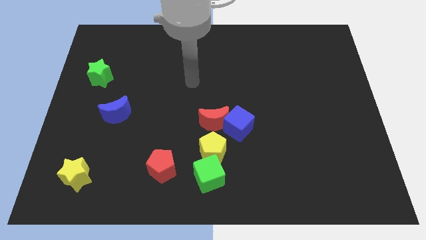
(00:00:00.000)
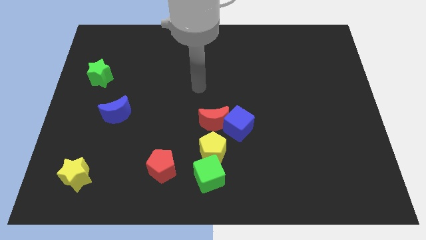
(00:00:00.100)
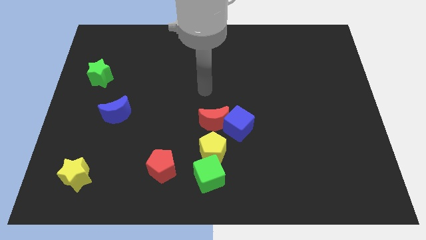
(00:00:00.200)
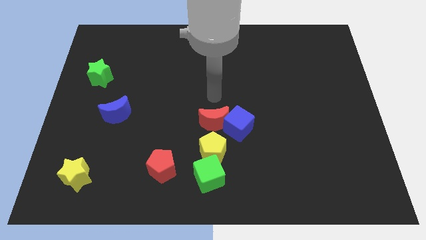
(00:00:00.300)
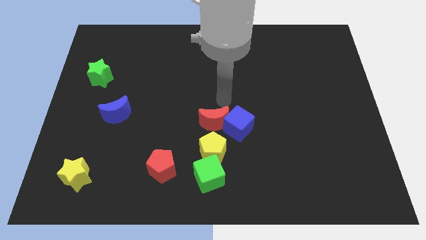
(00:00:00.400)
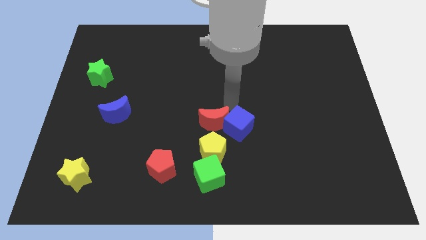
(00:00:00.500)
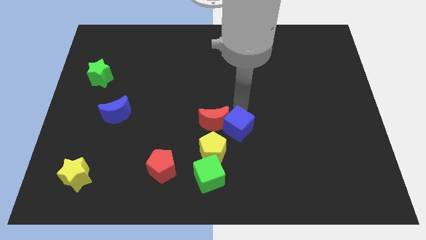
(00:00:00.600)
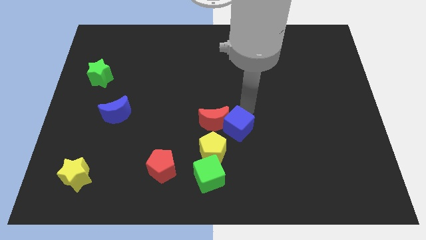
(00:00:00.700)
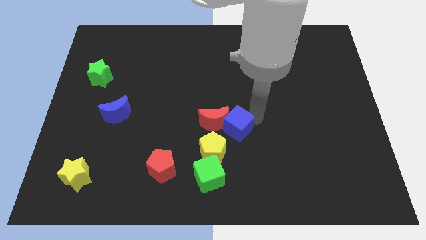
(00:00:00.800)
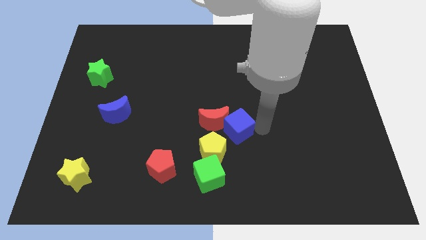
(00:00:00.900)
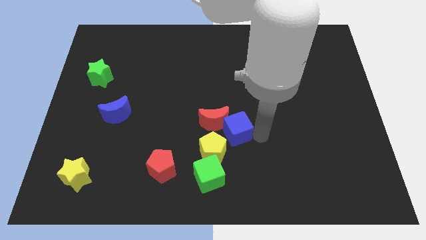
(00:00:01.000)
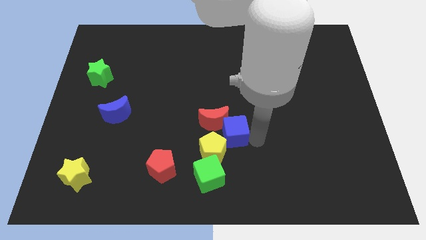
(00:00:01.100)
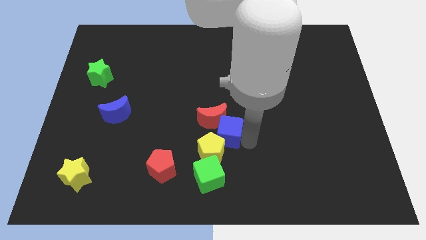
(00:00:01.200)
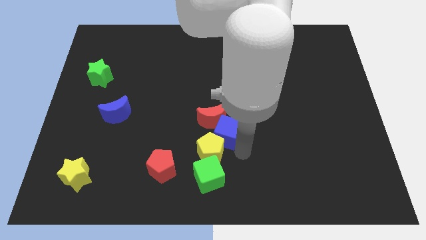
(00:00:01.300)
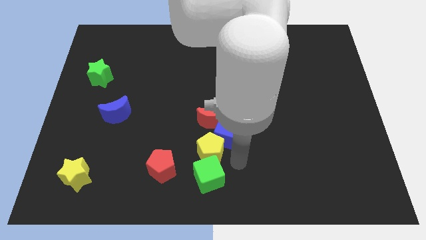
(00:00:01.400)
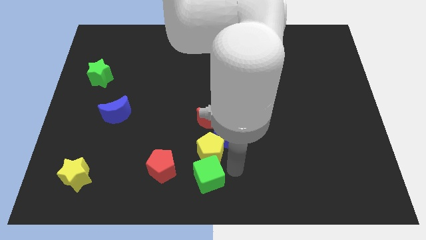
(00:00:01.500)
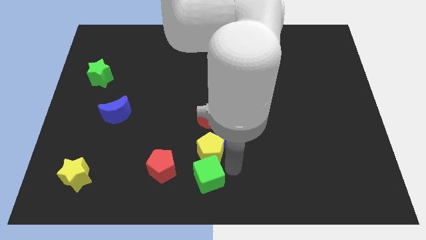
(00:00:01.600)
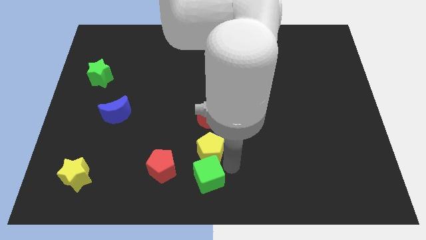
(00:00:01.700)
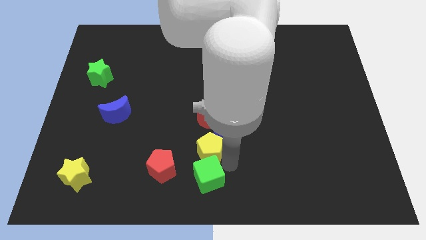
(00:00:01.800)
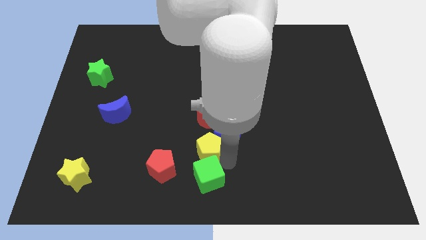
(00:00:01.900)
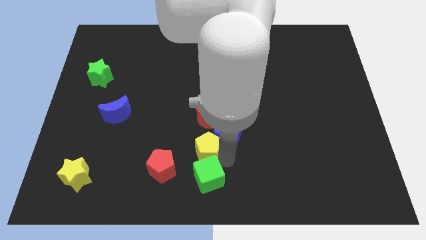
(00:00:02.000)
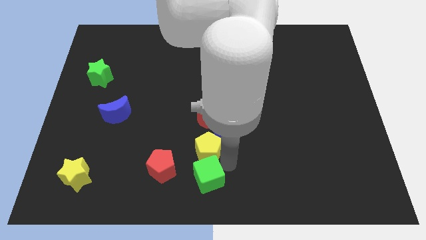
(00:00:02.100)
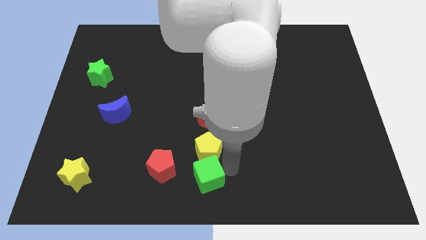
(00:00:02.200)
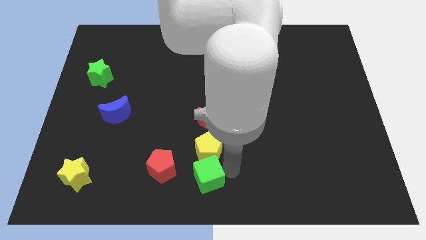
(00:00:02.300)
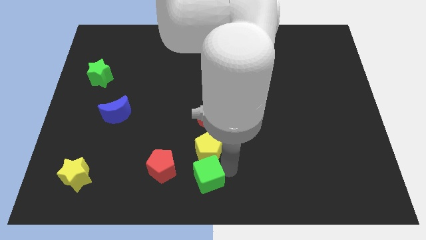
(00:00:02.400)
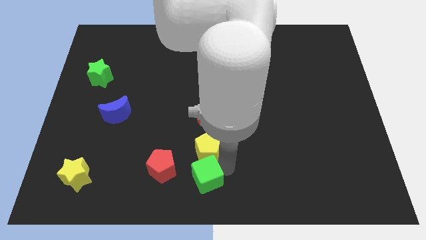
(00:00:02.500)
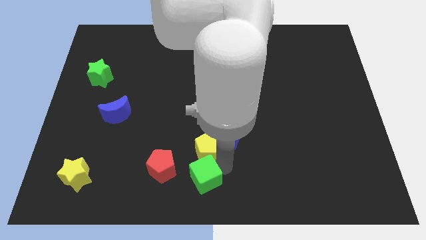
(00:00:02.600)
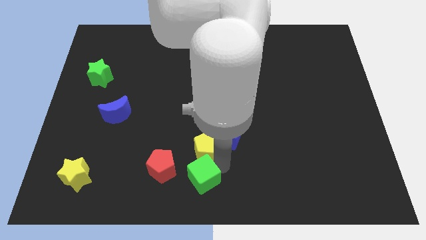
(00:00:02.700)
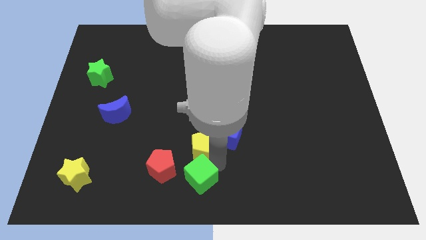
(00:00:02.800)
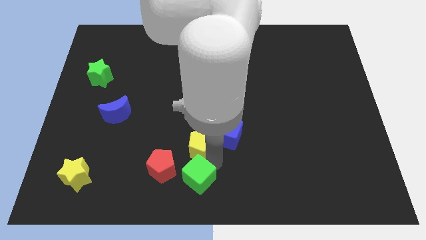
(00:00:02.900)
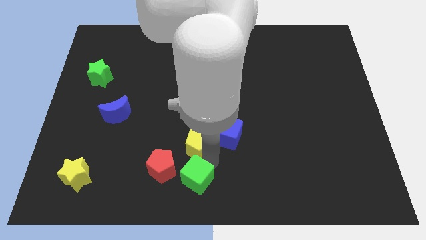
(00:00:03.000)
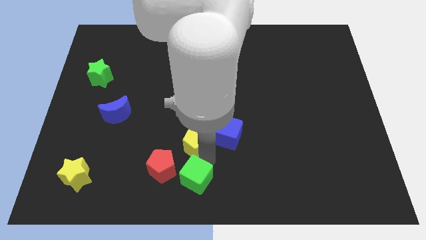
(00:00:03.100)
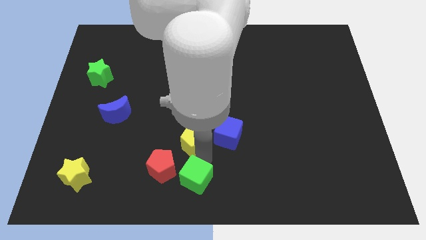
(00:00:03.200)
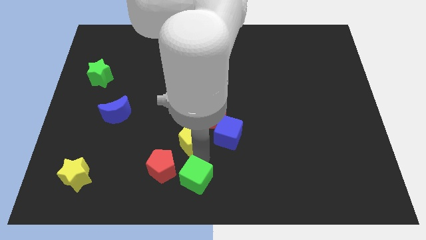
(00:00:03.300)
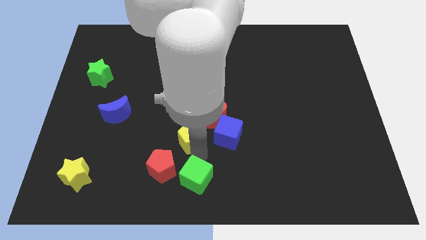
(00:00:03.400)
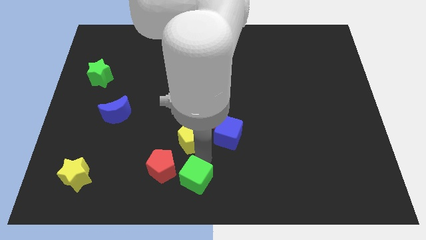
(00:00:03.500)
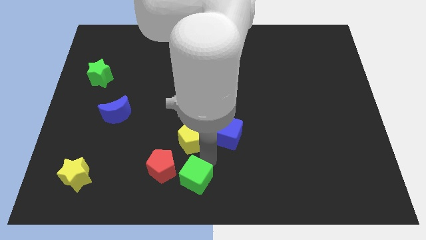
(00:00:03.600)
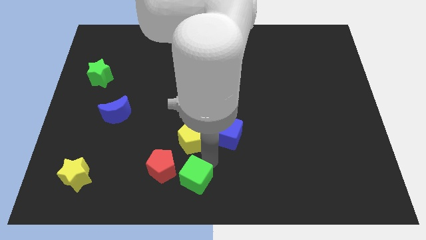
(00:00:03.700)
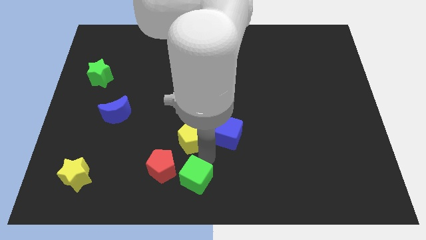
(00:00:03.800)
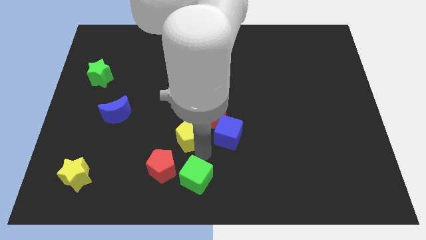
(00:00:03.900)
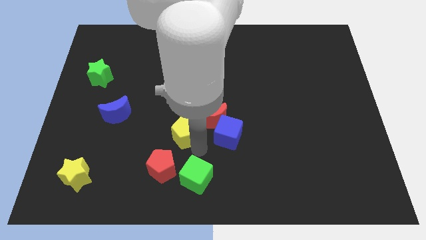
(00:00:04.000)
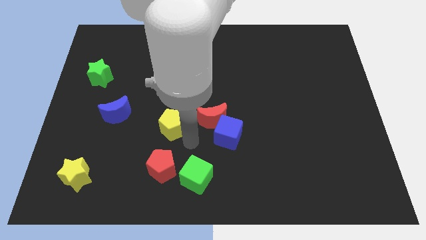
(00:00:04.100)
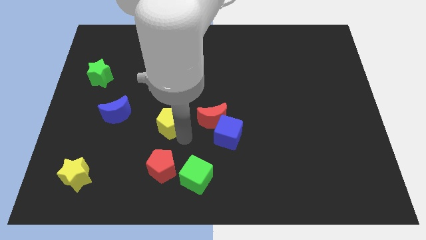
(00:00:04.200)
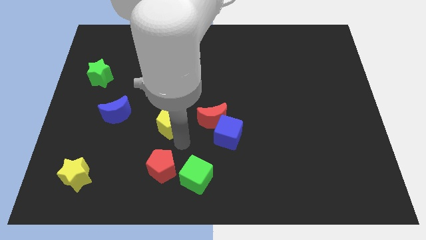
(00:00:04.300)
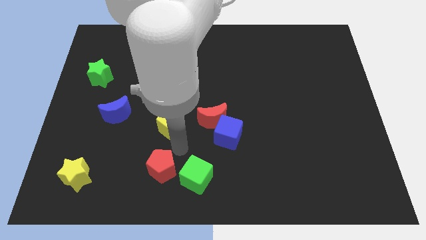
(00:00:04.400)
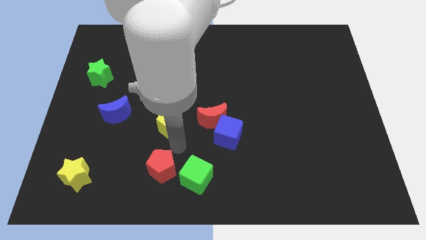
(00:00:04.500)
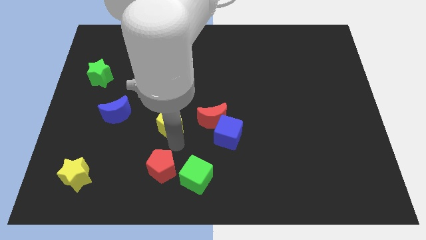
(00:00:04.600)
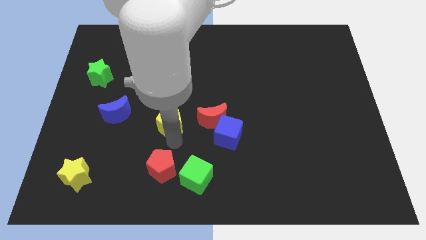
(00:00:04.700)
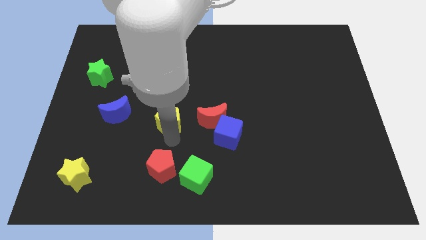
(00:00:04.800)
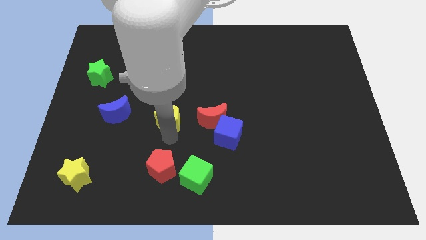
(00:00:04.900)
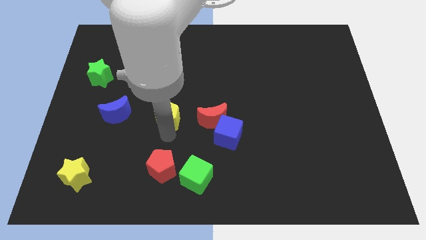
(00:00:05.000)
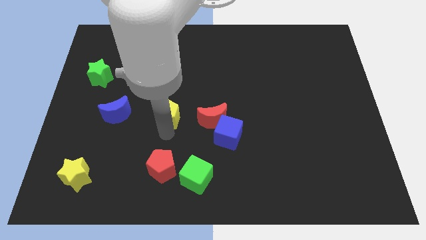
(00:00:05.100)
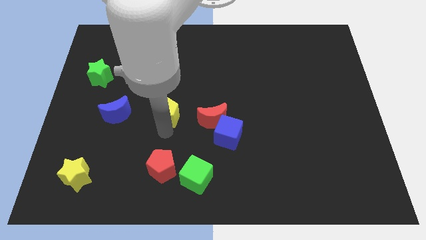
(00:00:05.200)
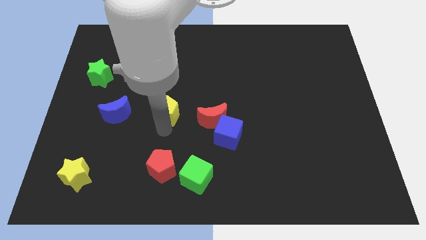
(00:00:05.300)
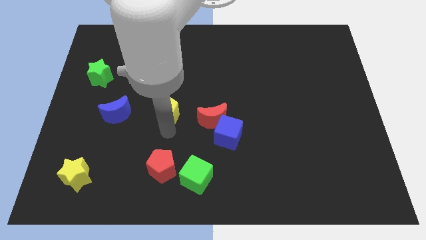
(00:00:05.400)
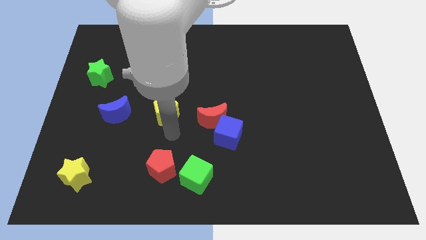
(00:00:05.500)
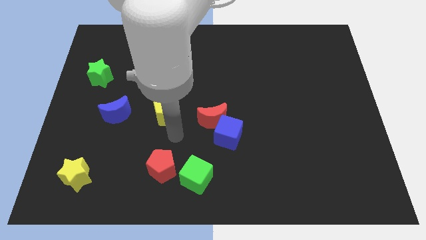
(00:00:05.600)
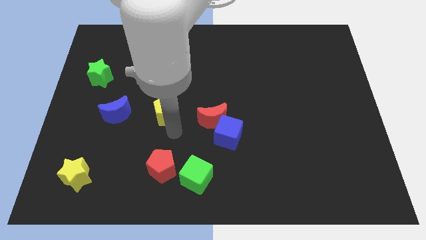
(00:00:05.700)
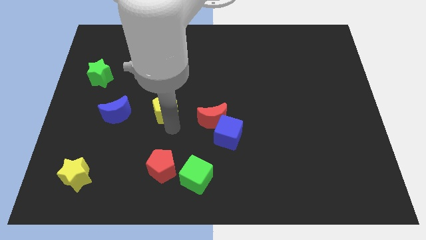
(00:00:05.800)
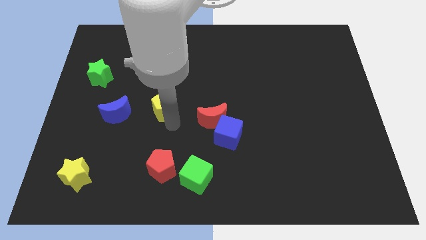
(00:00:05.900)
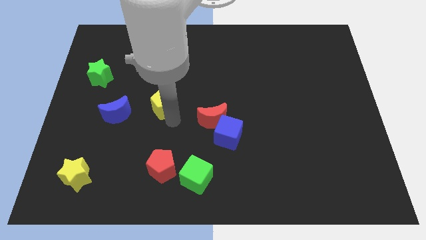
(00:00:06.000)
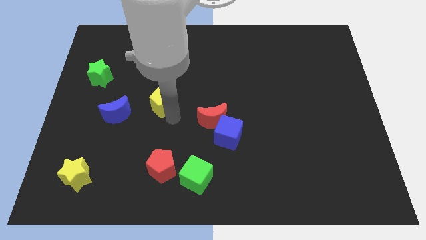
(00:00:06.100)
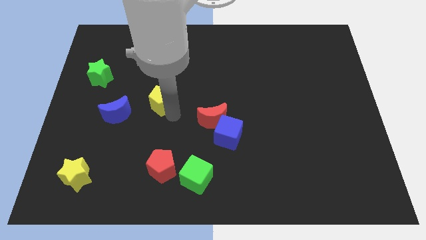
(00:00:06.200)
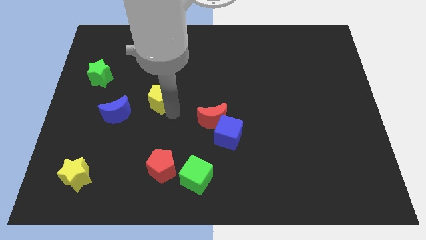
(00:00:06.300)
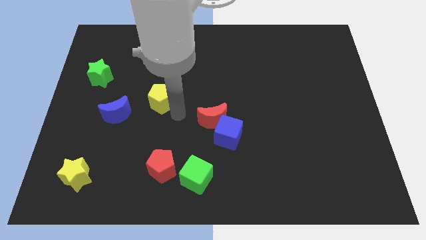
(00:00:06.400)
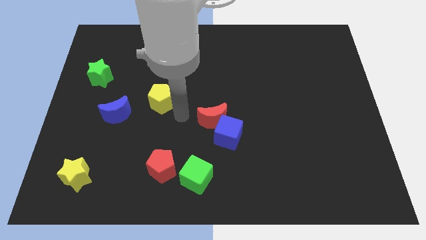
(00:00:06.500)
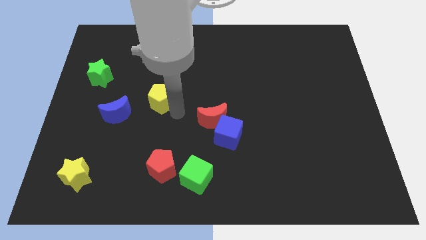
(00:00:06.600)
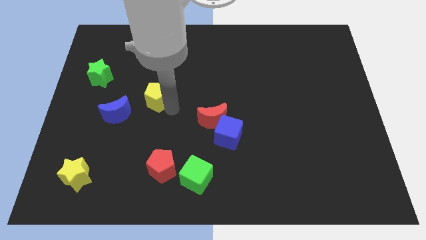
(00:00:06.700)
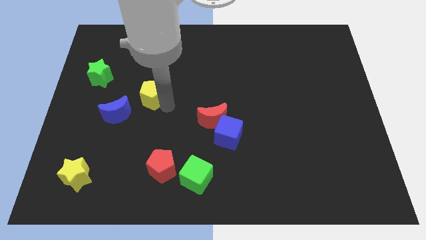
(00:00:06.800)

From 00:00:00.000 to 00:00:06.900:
slide the yellow pentagon upwards and left diagonally

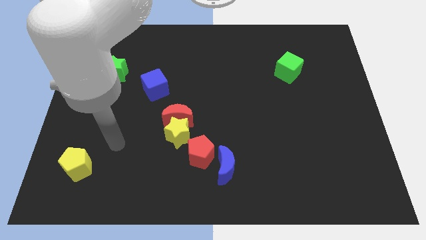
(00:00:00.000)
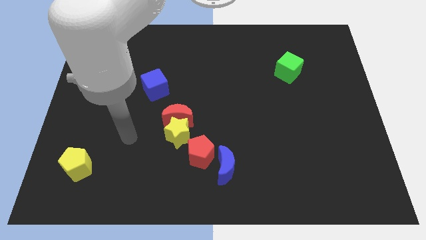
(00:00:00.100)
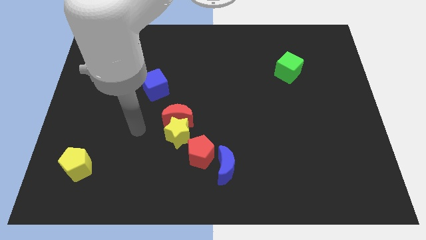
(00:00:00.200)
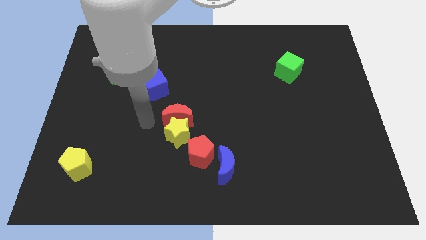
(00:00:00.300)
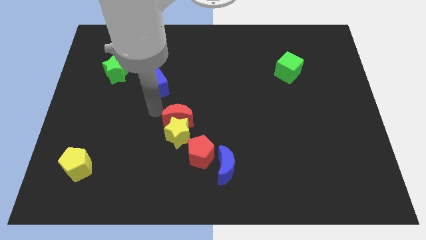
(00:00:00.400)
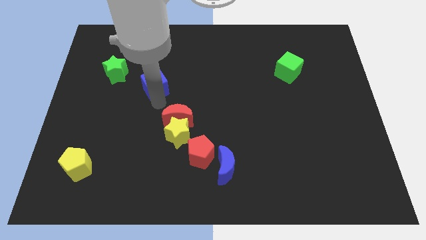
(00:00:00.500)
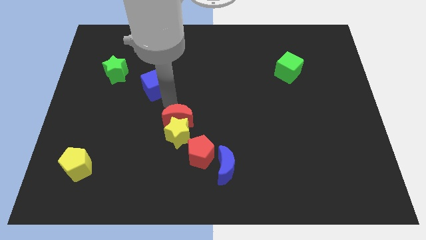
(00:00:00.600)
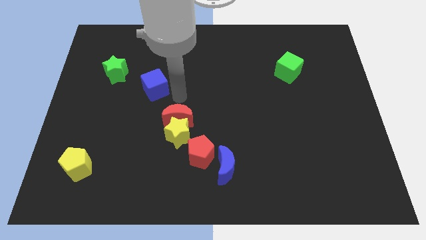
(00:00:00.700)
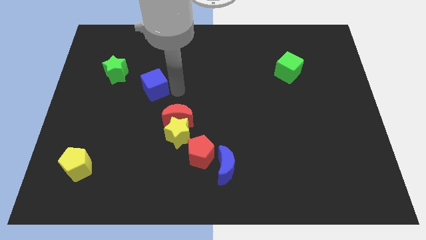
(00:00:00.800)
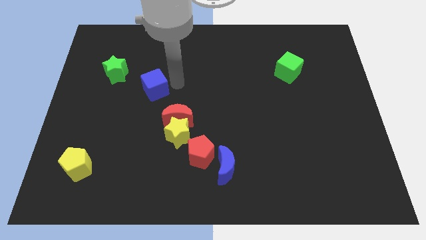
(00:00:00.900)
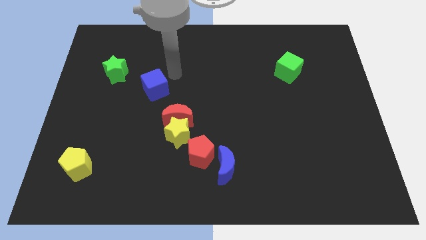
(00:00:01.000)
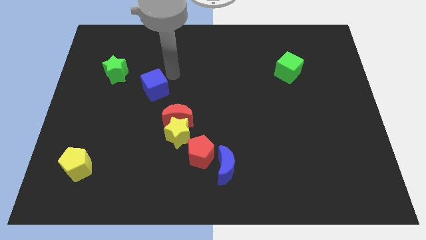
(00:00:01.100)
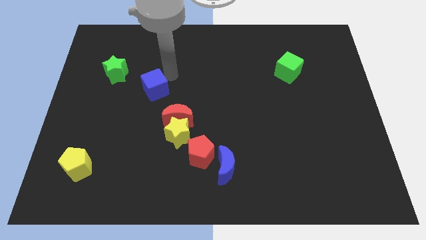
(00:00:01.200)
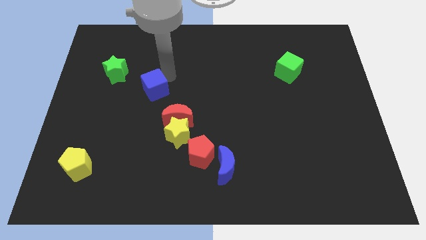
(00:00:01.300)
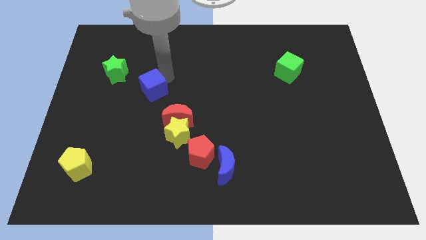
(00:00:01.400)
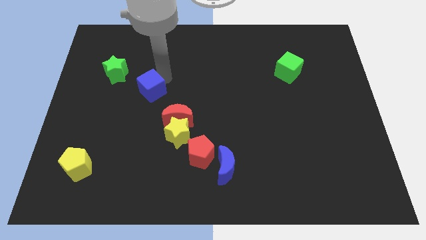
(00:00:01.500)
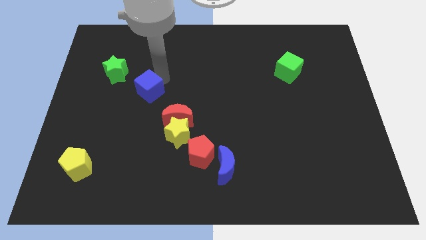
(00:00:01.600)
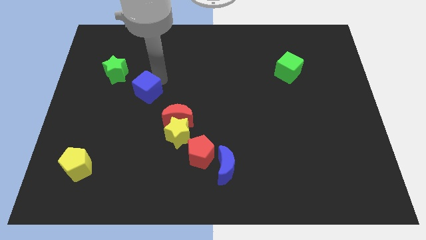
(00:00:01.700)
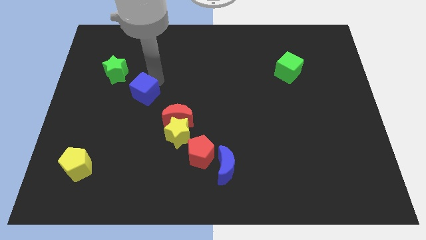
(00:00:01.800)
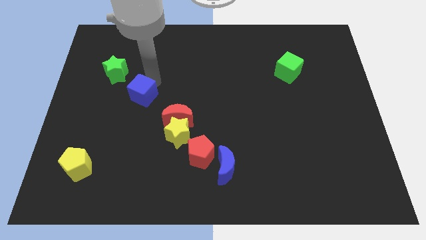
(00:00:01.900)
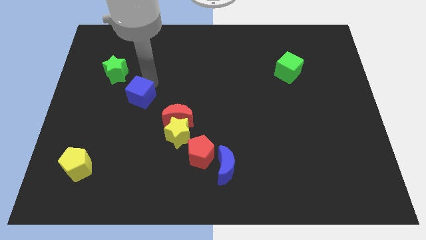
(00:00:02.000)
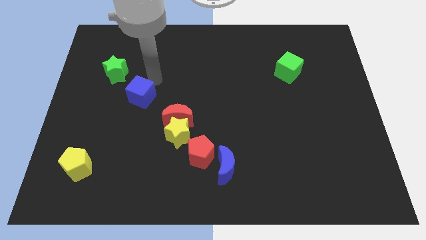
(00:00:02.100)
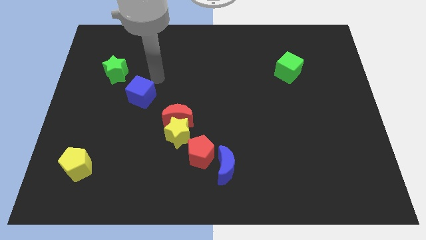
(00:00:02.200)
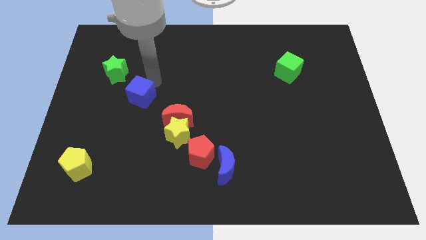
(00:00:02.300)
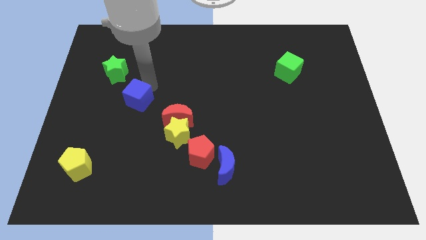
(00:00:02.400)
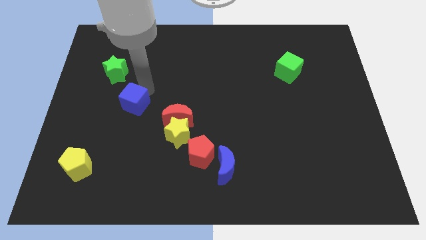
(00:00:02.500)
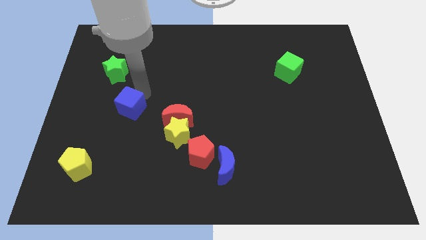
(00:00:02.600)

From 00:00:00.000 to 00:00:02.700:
slide the blue cube down and to the left a little
